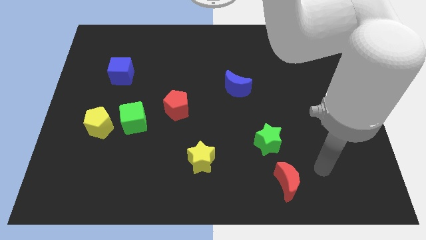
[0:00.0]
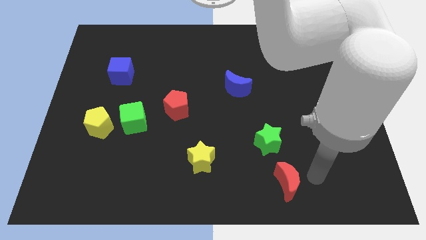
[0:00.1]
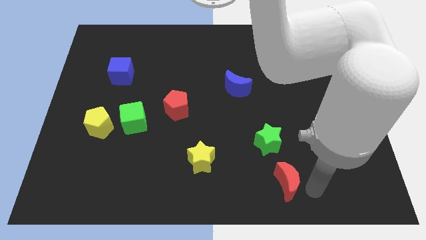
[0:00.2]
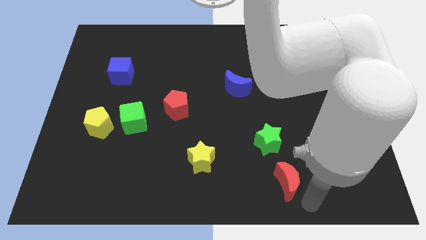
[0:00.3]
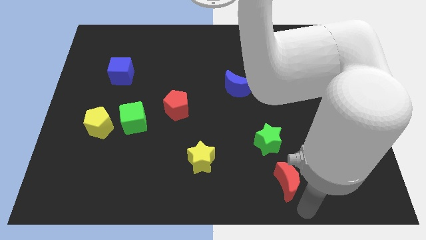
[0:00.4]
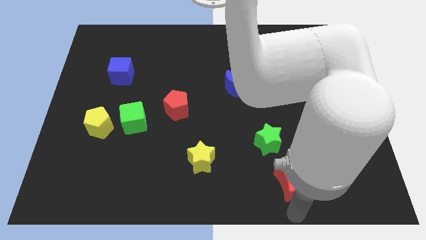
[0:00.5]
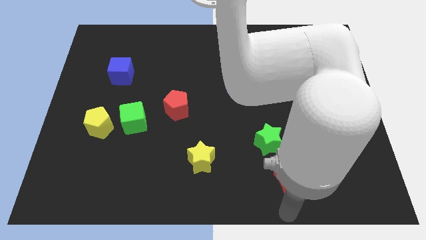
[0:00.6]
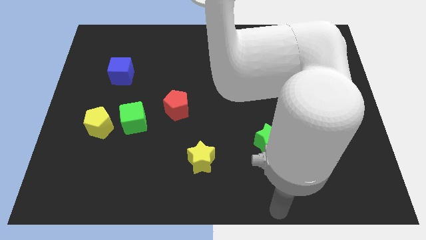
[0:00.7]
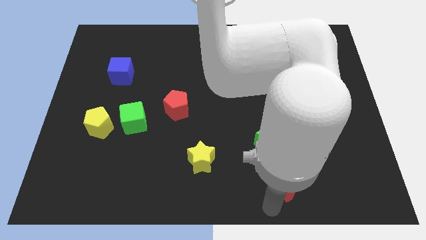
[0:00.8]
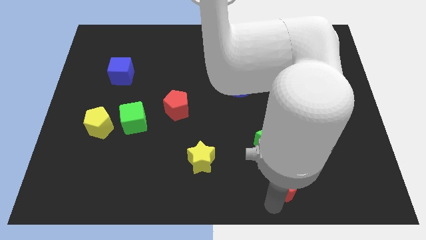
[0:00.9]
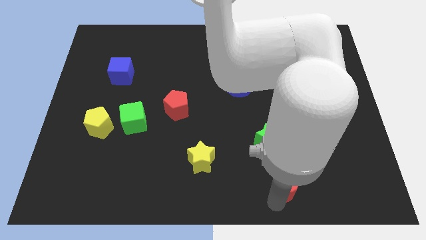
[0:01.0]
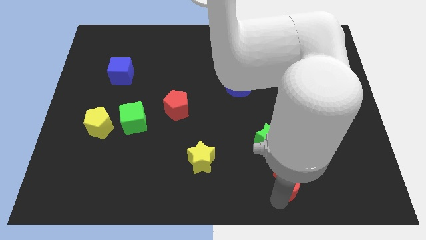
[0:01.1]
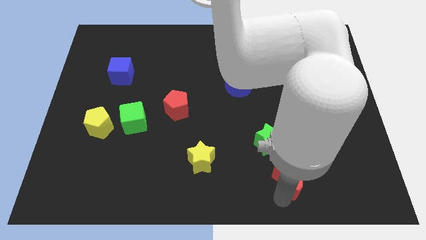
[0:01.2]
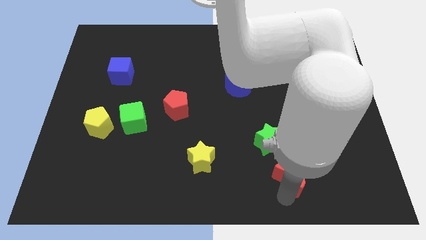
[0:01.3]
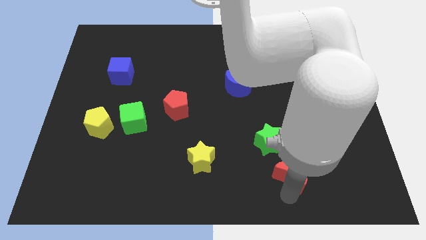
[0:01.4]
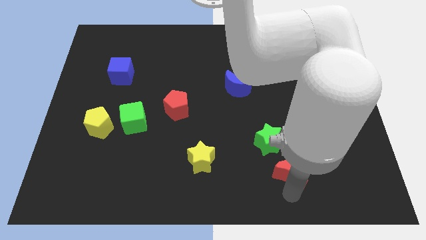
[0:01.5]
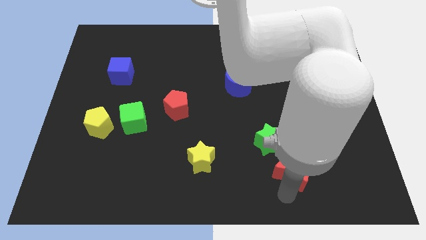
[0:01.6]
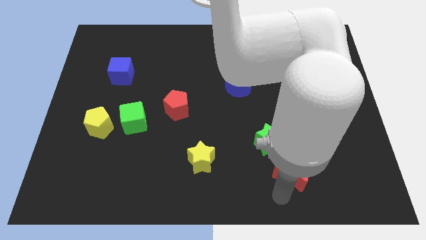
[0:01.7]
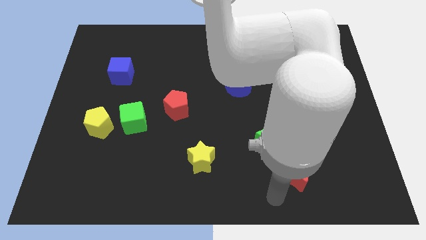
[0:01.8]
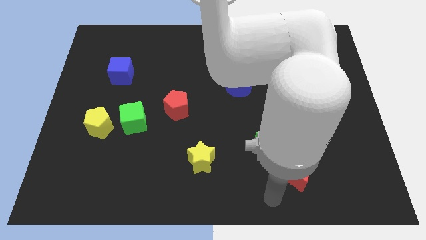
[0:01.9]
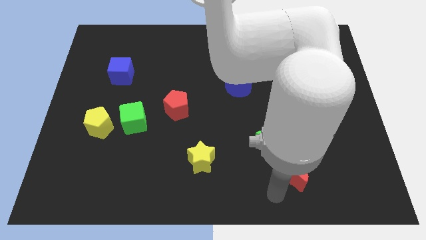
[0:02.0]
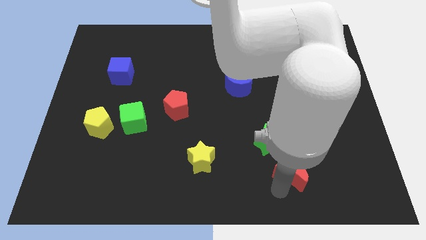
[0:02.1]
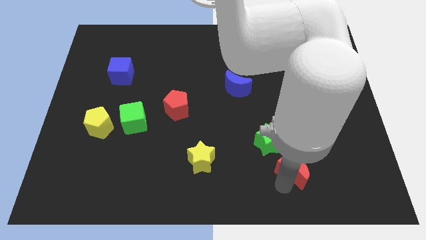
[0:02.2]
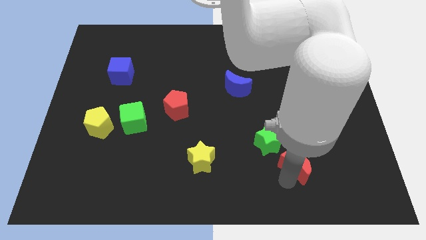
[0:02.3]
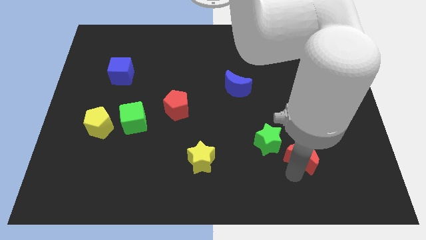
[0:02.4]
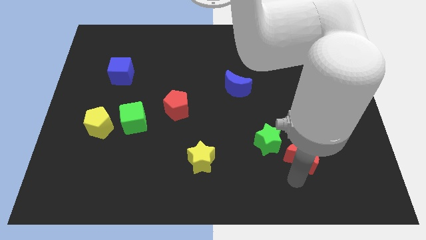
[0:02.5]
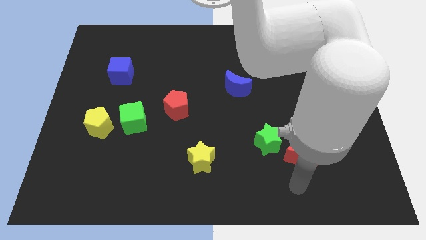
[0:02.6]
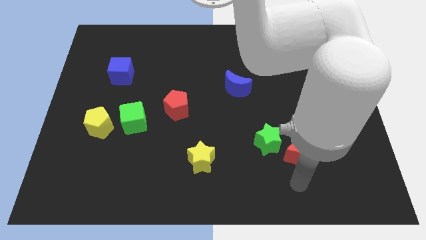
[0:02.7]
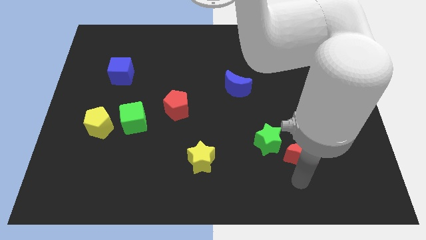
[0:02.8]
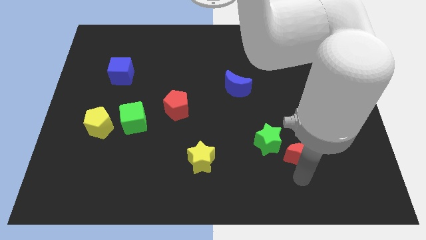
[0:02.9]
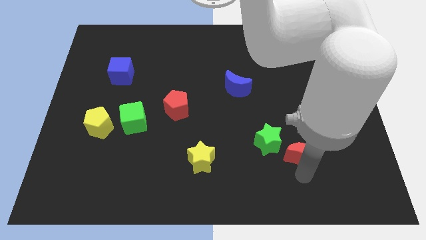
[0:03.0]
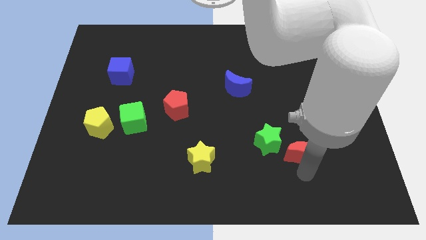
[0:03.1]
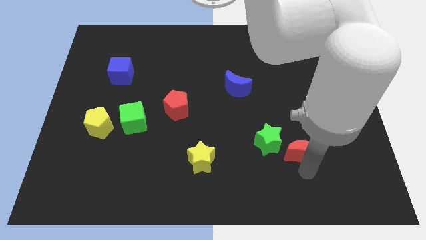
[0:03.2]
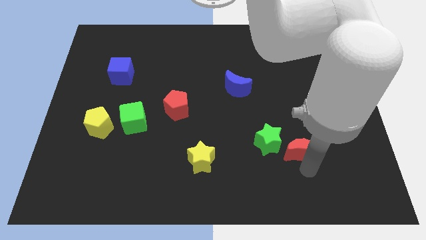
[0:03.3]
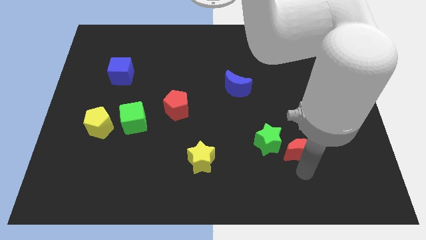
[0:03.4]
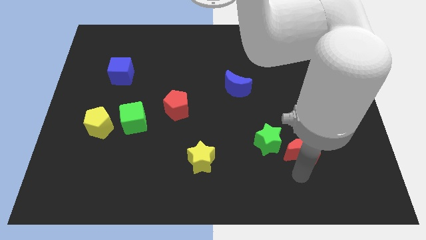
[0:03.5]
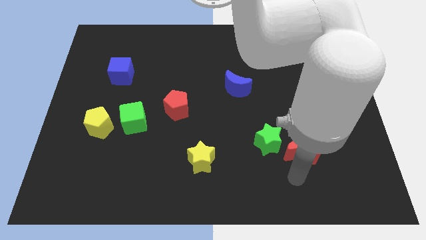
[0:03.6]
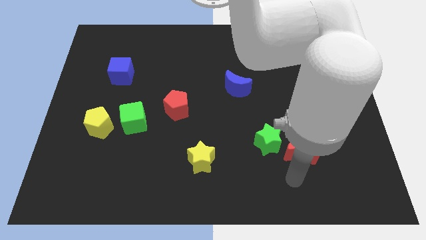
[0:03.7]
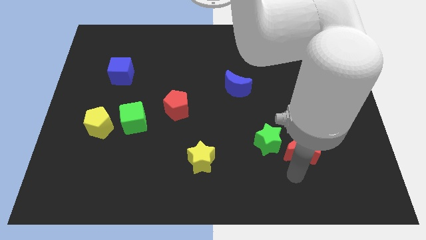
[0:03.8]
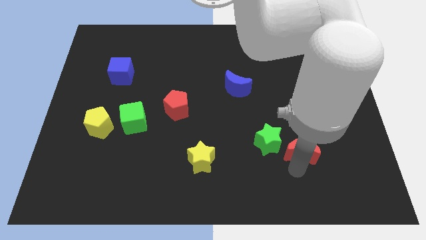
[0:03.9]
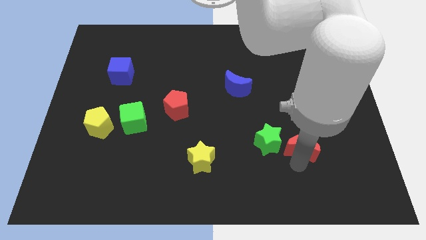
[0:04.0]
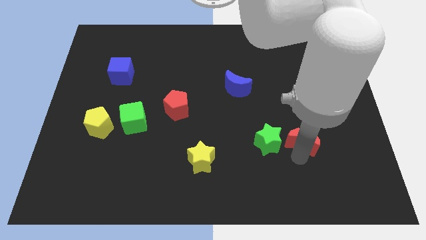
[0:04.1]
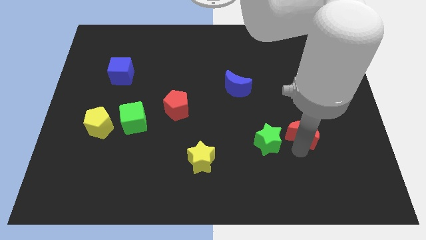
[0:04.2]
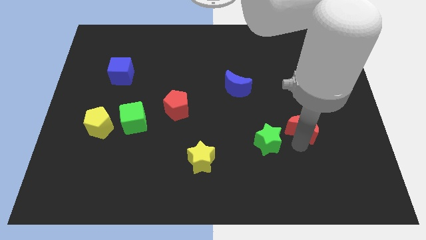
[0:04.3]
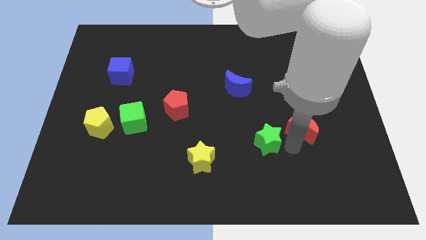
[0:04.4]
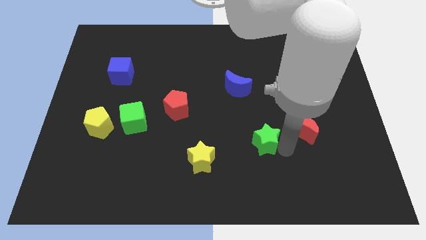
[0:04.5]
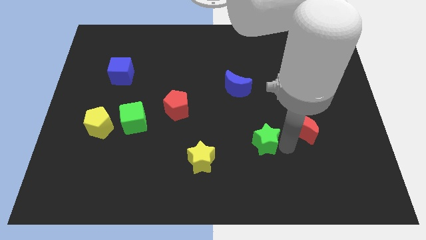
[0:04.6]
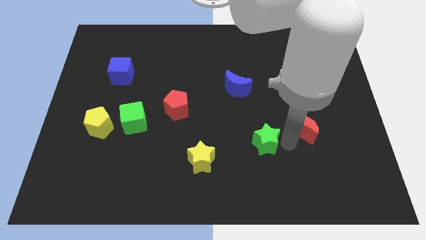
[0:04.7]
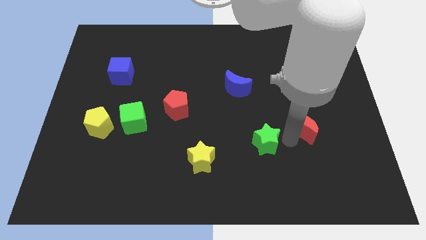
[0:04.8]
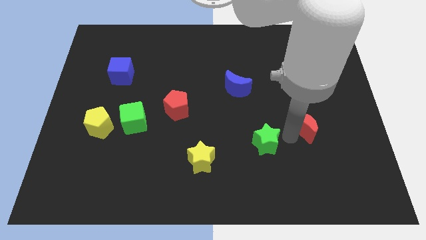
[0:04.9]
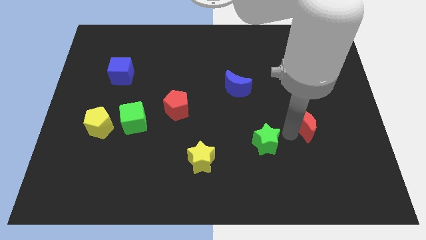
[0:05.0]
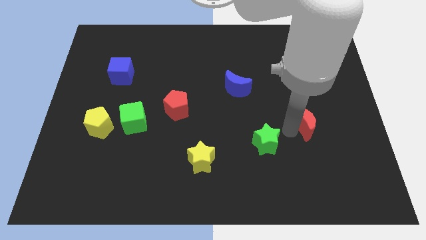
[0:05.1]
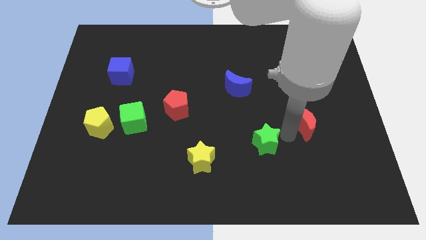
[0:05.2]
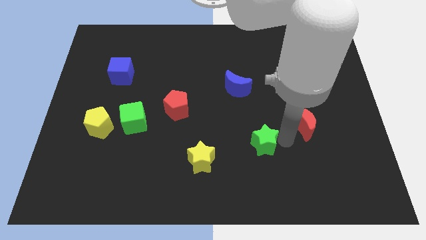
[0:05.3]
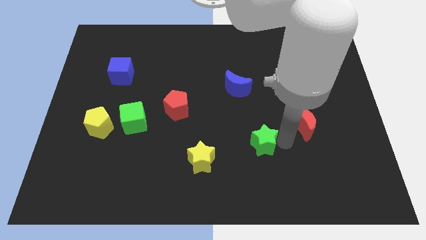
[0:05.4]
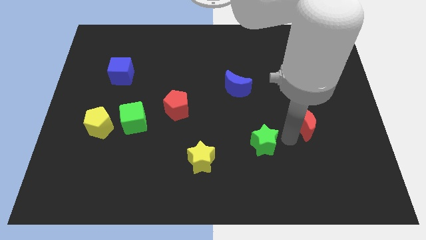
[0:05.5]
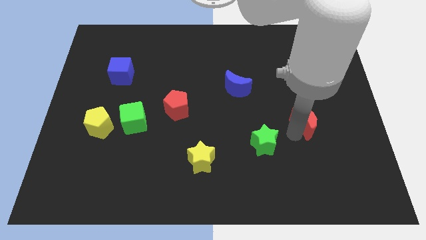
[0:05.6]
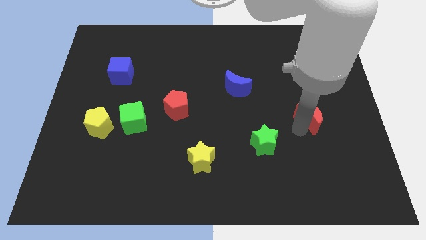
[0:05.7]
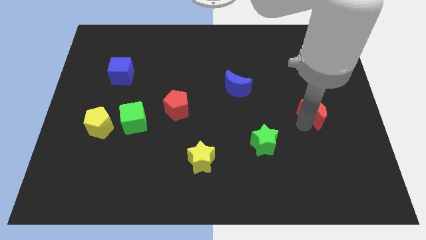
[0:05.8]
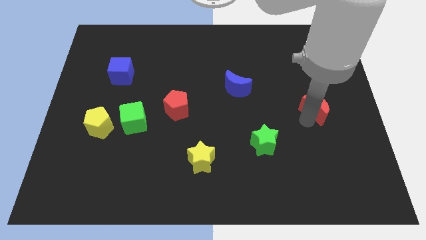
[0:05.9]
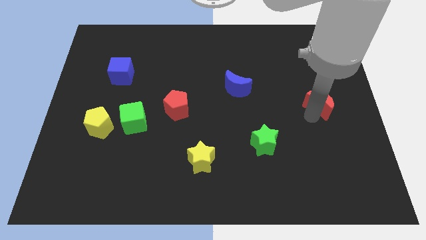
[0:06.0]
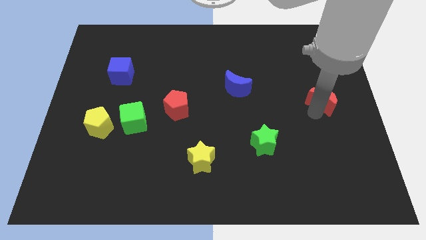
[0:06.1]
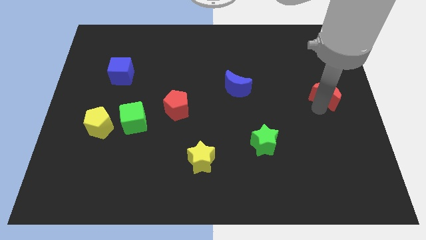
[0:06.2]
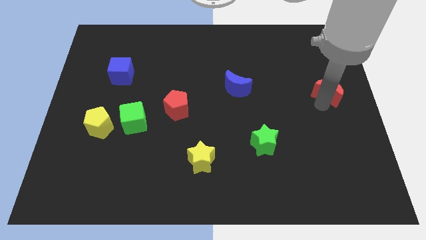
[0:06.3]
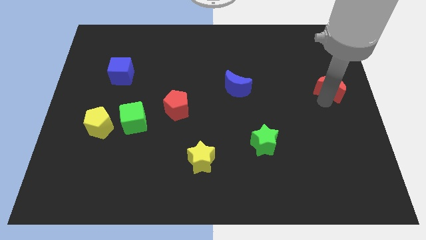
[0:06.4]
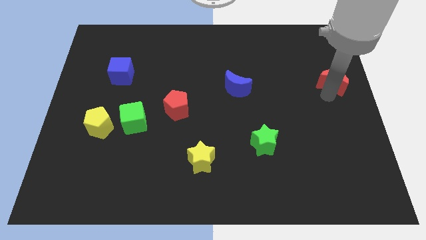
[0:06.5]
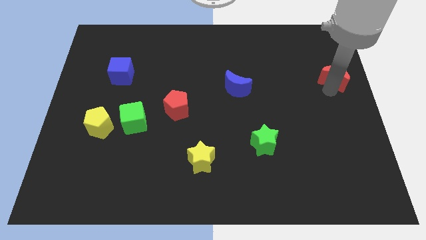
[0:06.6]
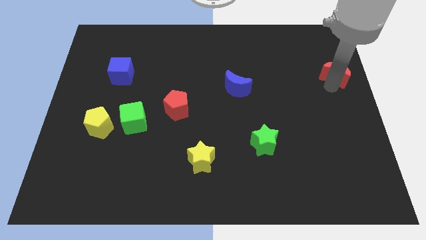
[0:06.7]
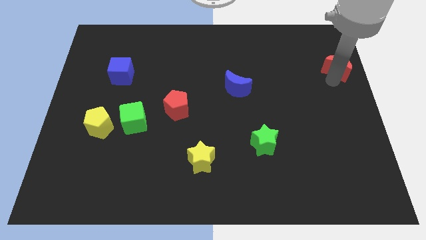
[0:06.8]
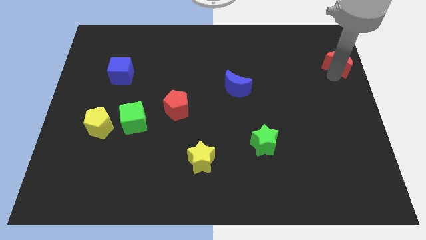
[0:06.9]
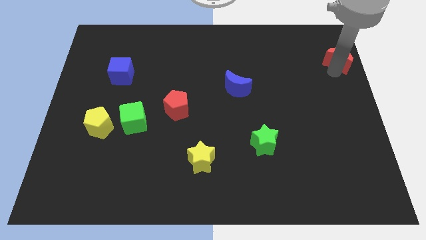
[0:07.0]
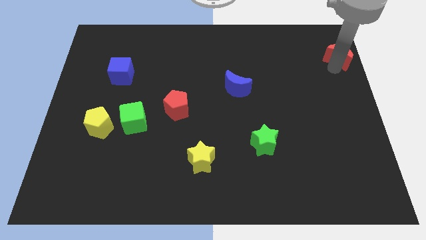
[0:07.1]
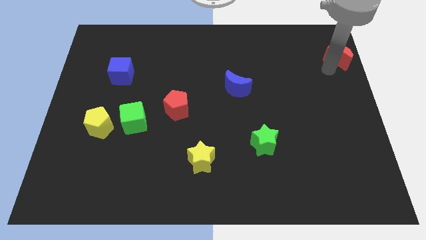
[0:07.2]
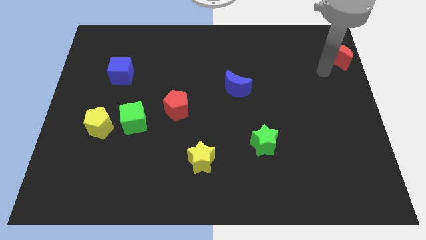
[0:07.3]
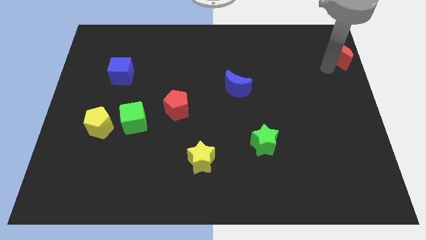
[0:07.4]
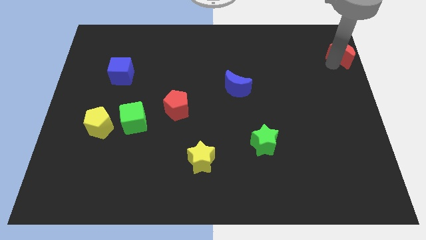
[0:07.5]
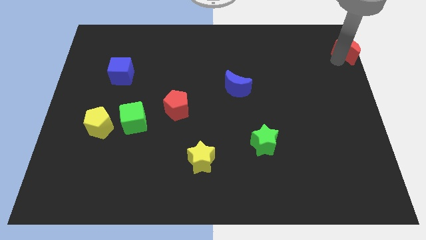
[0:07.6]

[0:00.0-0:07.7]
push the red moon to the top right corner
